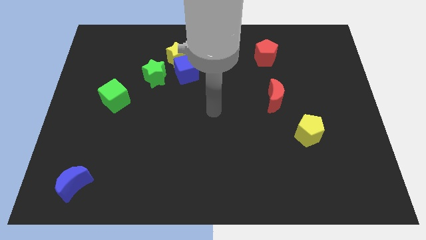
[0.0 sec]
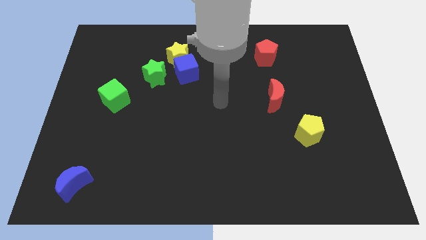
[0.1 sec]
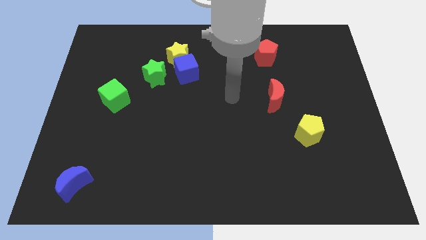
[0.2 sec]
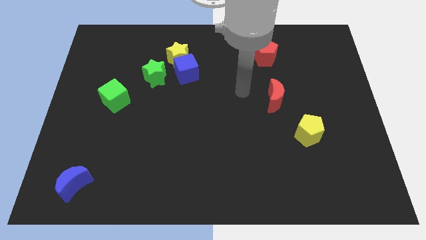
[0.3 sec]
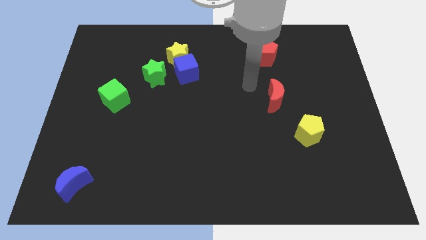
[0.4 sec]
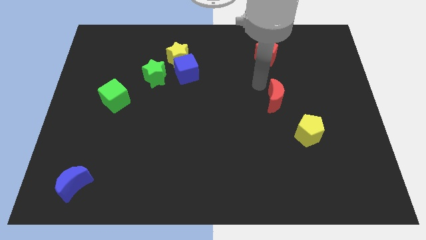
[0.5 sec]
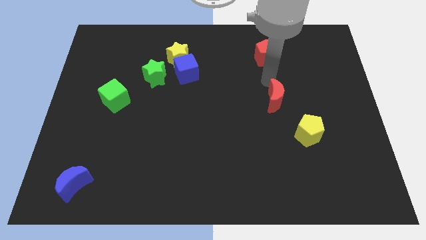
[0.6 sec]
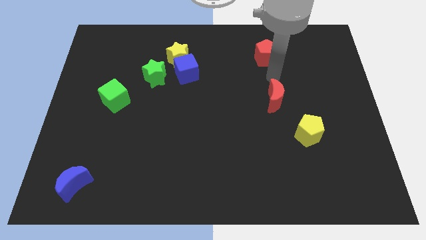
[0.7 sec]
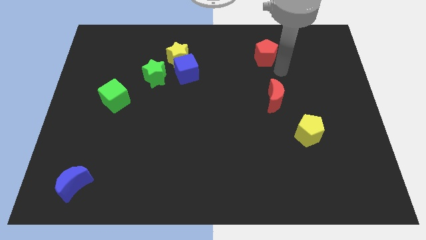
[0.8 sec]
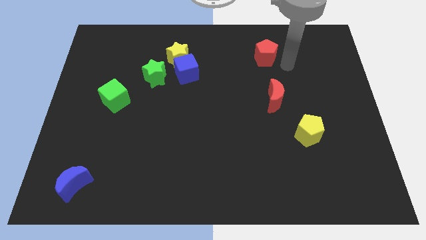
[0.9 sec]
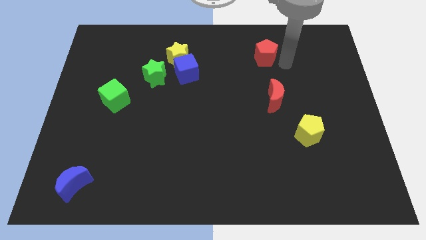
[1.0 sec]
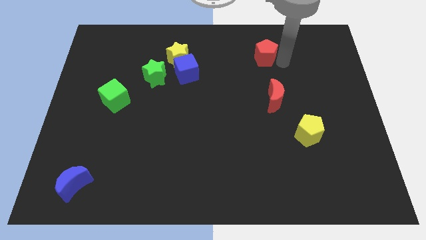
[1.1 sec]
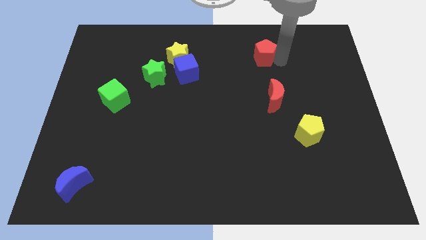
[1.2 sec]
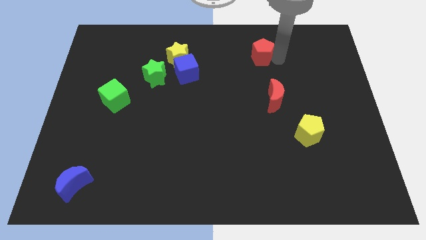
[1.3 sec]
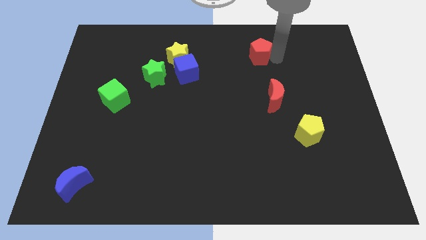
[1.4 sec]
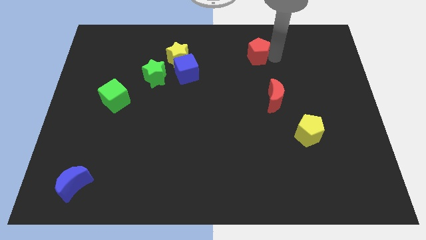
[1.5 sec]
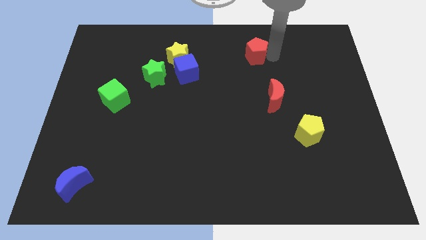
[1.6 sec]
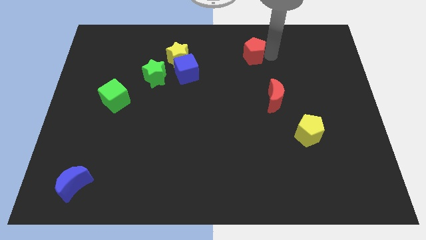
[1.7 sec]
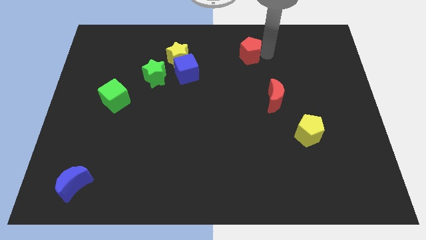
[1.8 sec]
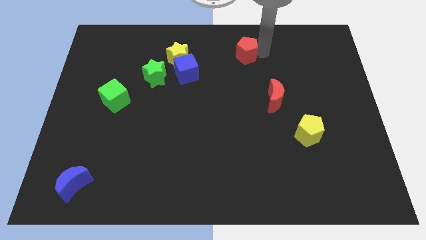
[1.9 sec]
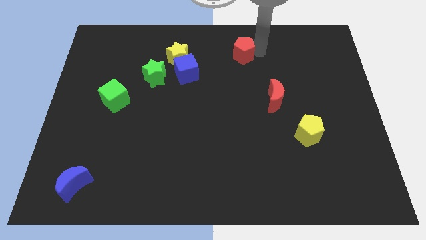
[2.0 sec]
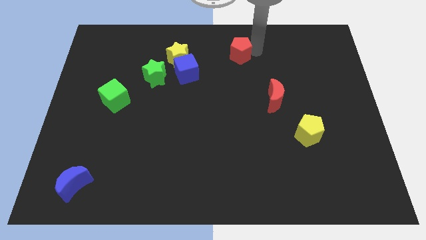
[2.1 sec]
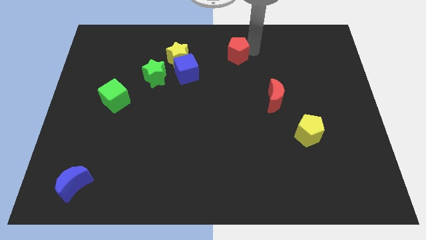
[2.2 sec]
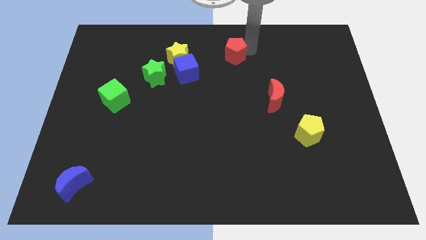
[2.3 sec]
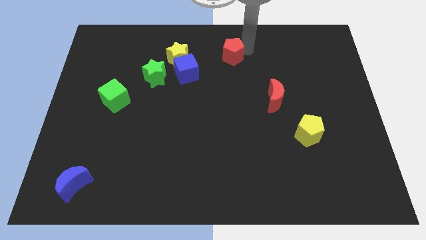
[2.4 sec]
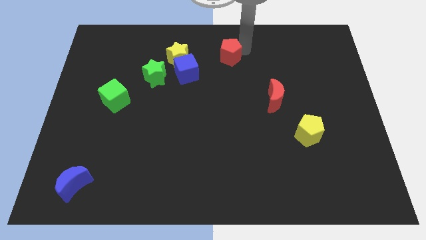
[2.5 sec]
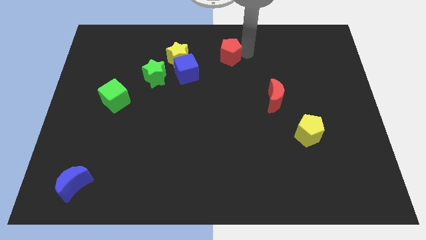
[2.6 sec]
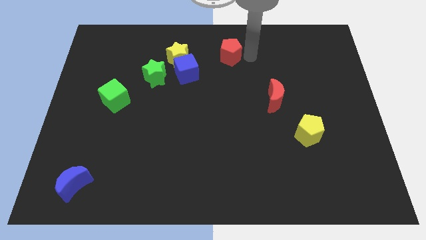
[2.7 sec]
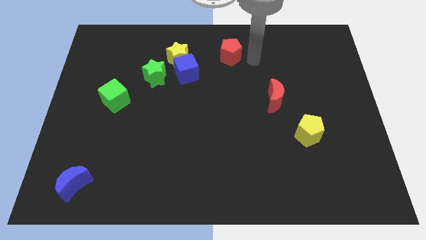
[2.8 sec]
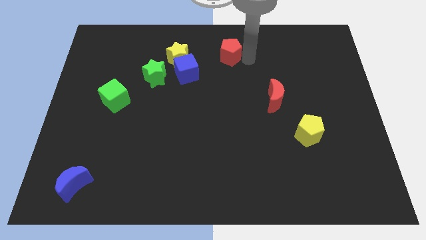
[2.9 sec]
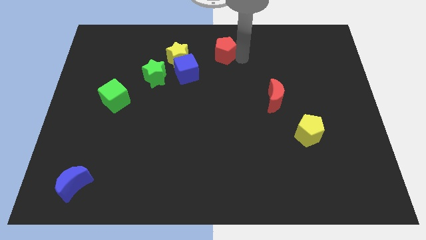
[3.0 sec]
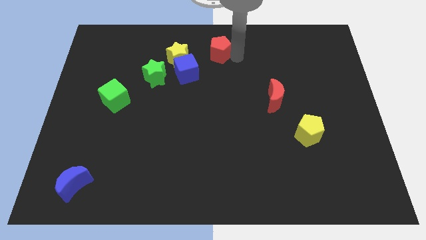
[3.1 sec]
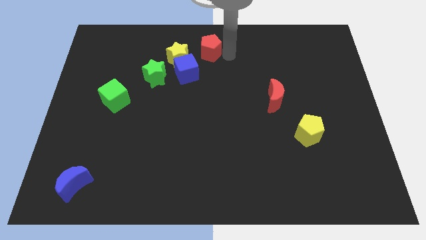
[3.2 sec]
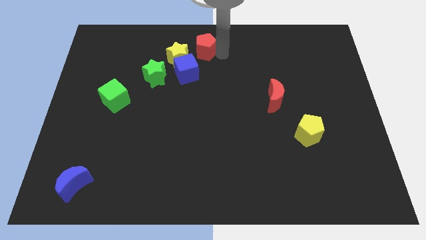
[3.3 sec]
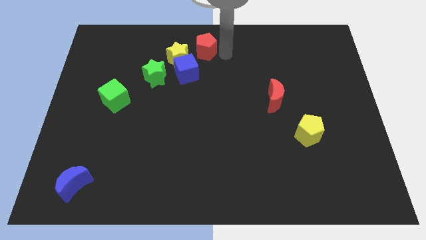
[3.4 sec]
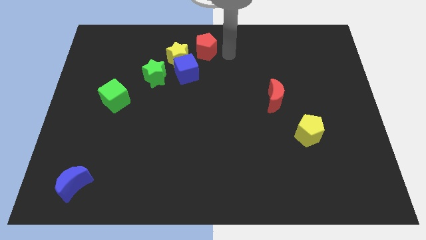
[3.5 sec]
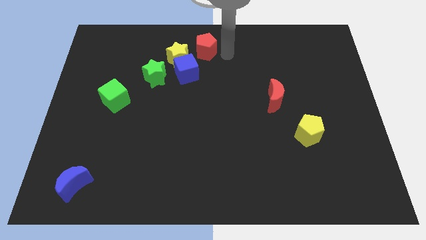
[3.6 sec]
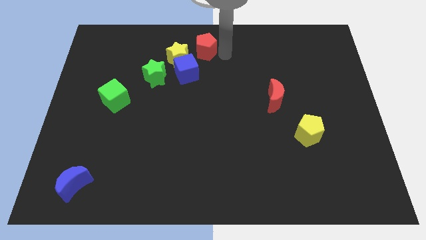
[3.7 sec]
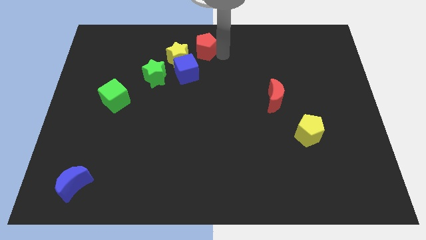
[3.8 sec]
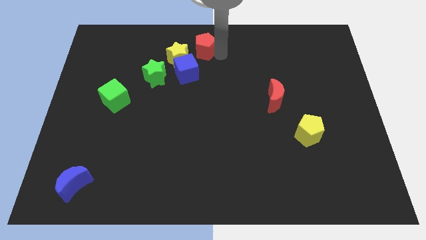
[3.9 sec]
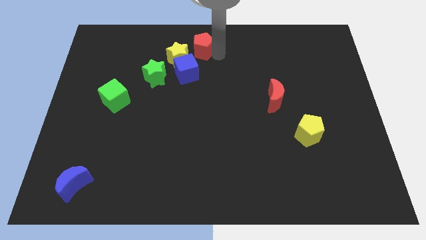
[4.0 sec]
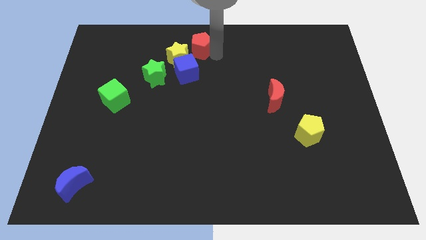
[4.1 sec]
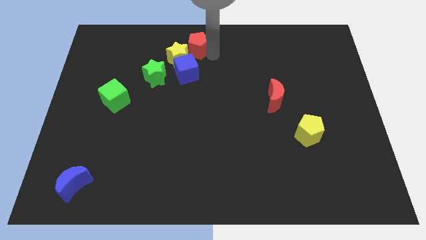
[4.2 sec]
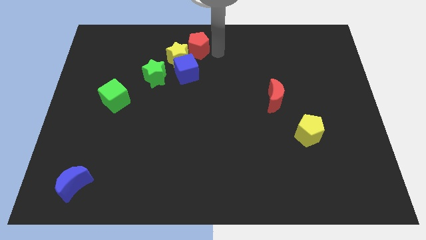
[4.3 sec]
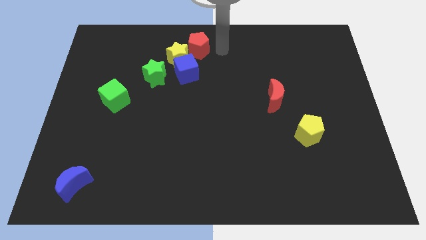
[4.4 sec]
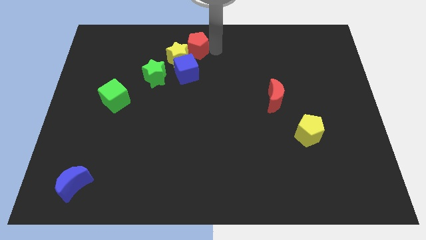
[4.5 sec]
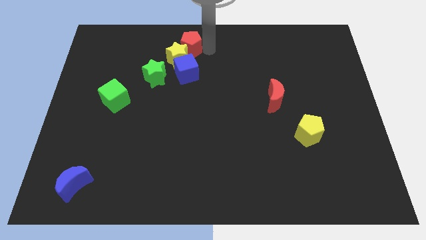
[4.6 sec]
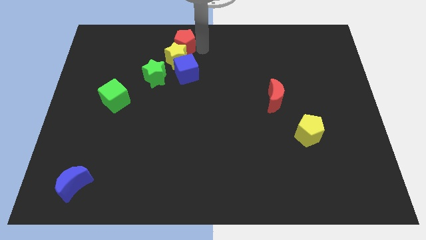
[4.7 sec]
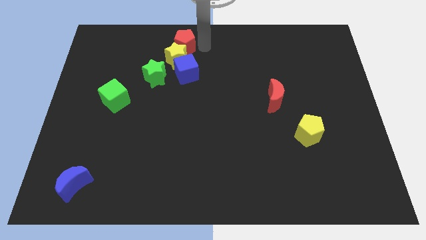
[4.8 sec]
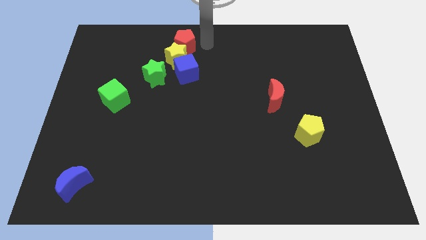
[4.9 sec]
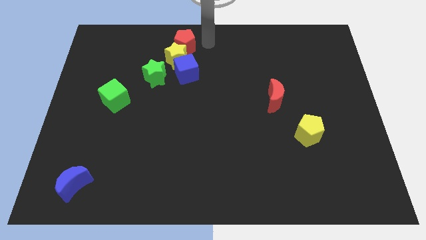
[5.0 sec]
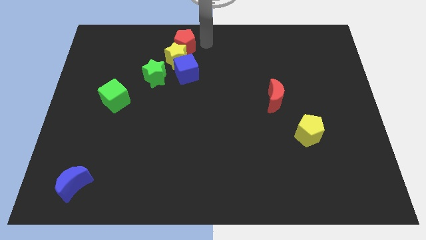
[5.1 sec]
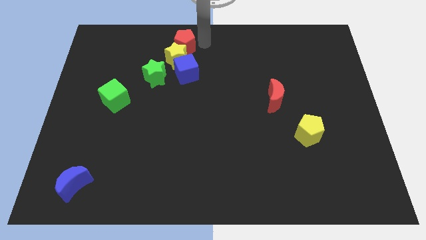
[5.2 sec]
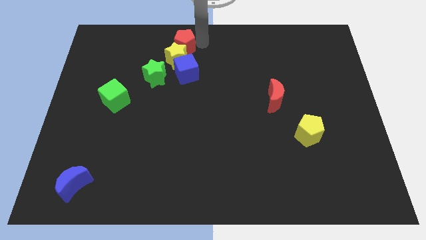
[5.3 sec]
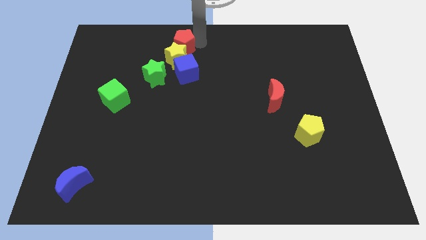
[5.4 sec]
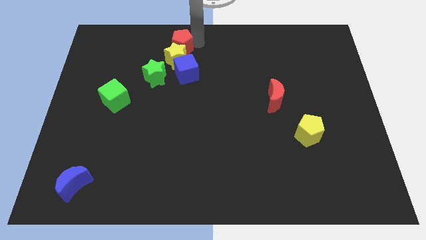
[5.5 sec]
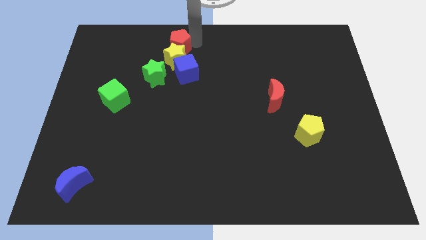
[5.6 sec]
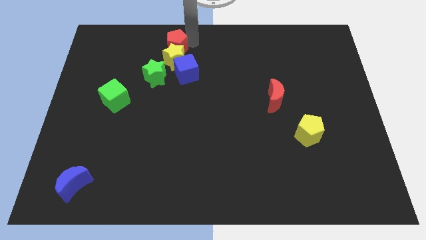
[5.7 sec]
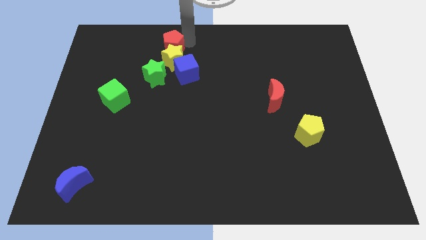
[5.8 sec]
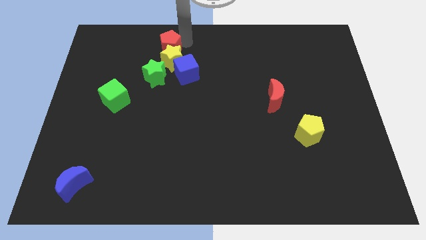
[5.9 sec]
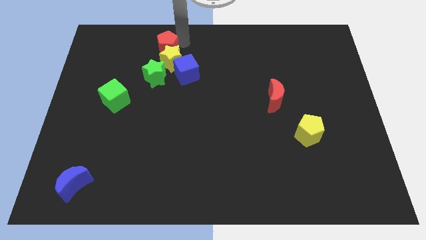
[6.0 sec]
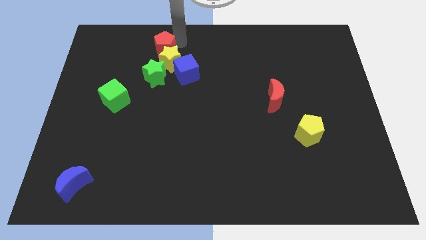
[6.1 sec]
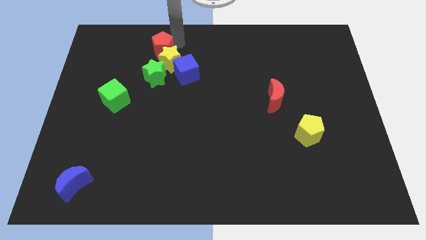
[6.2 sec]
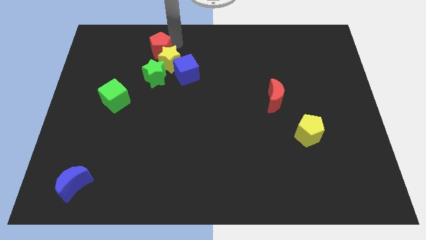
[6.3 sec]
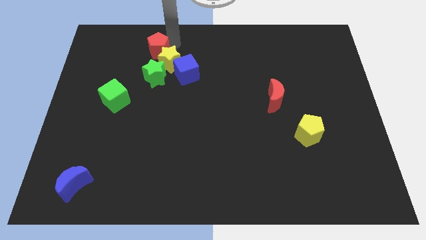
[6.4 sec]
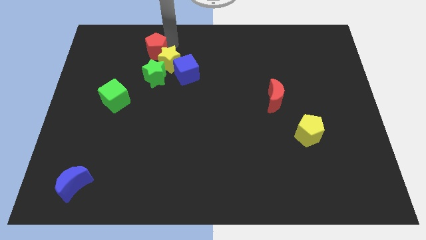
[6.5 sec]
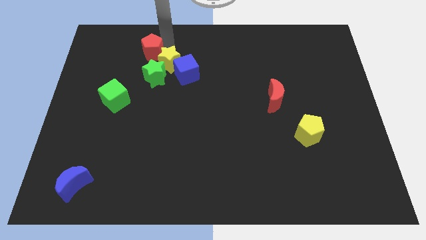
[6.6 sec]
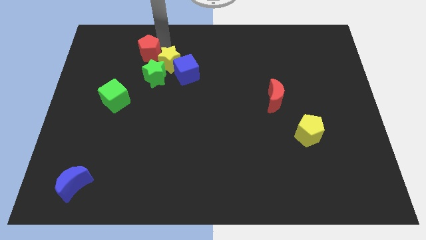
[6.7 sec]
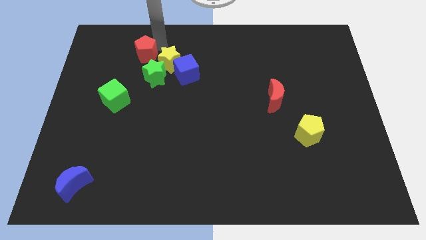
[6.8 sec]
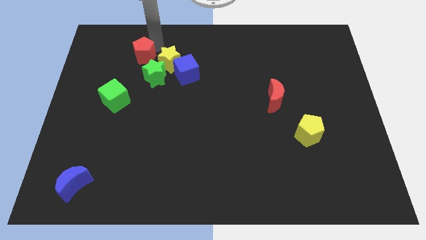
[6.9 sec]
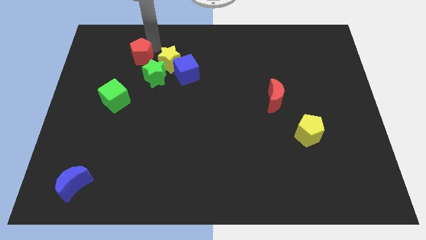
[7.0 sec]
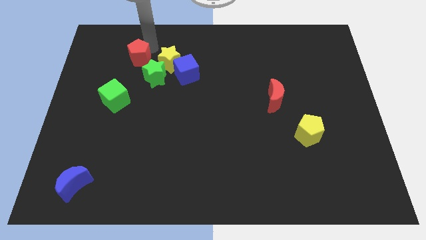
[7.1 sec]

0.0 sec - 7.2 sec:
push the red pentagon to the top side of the green cube
